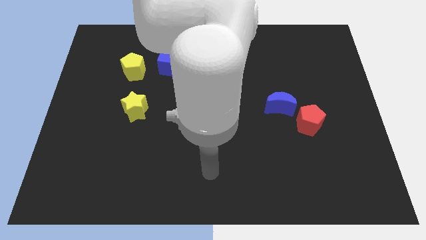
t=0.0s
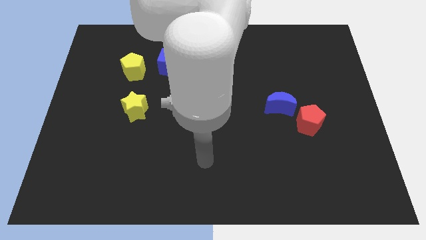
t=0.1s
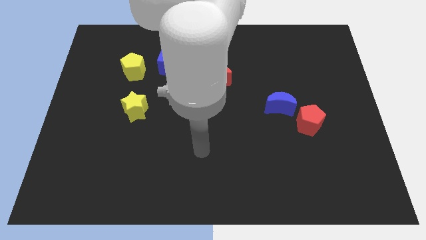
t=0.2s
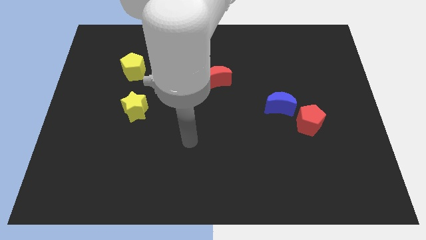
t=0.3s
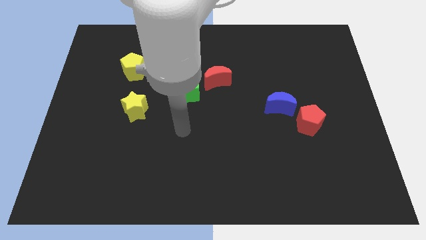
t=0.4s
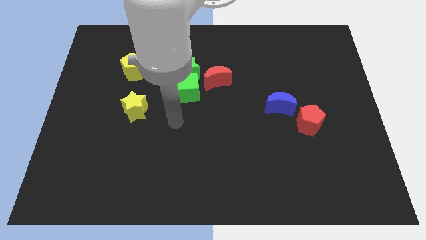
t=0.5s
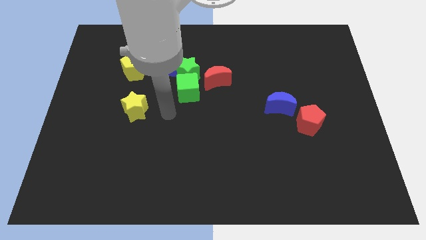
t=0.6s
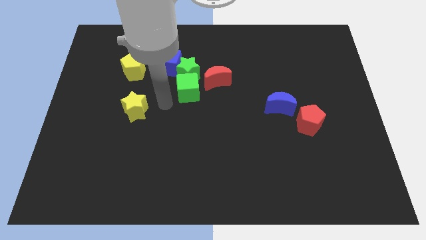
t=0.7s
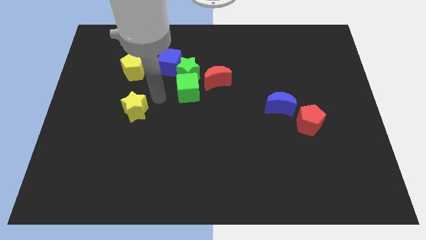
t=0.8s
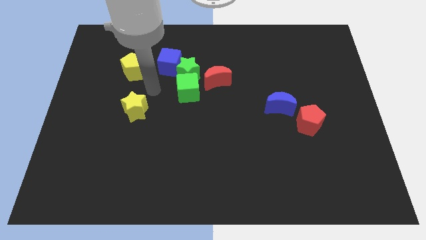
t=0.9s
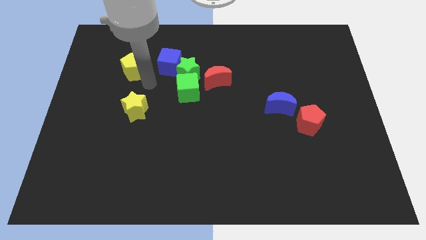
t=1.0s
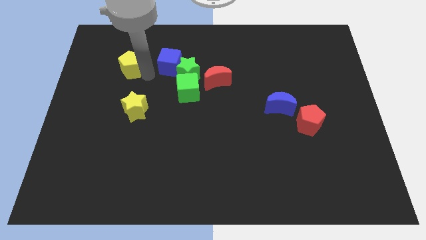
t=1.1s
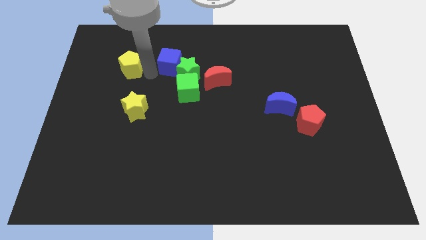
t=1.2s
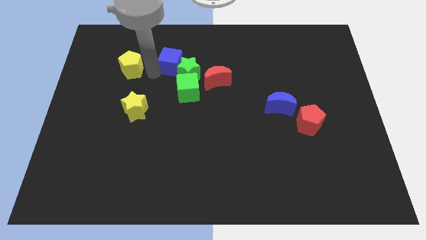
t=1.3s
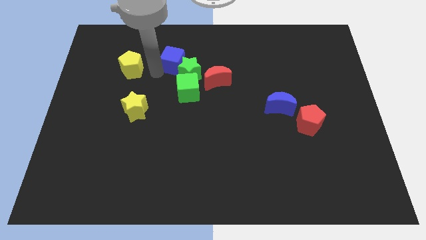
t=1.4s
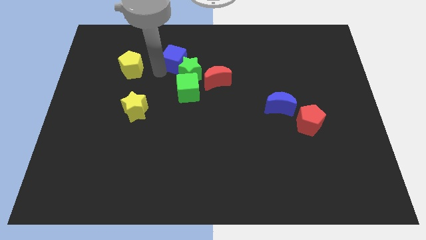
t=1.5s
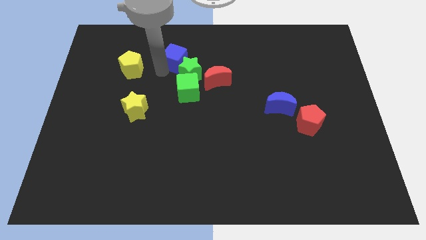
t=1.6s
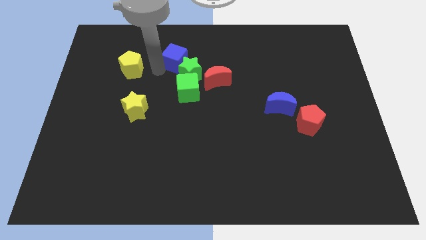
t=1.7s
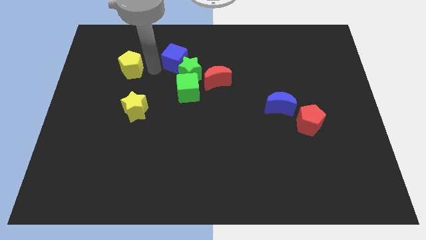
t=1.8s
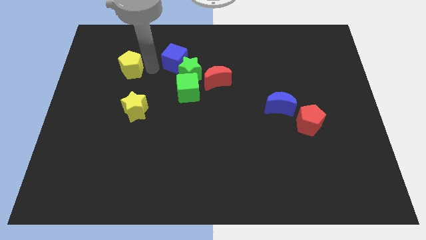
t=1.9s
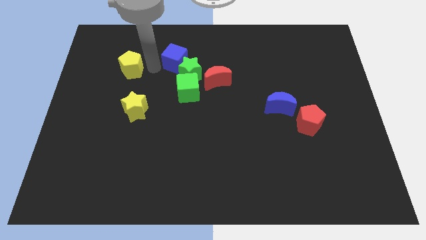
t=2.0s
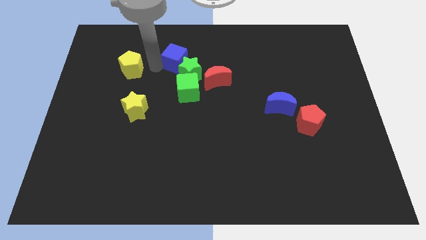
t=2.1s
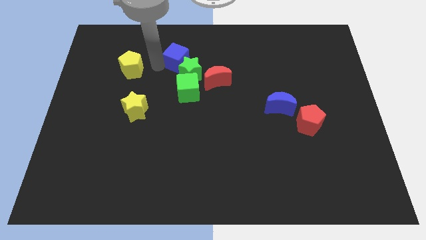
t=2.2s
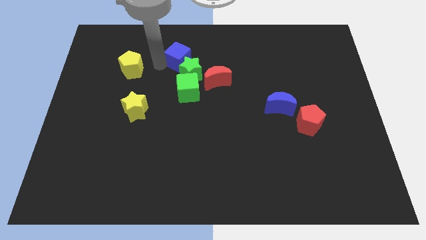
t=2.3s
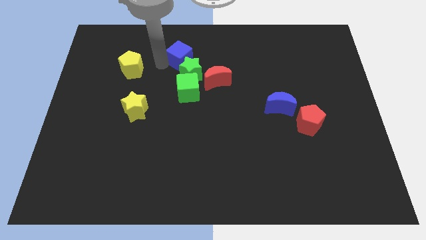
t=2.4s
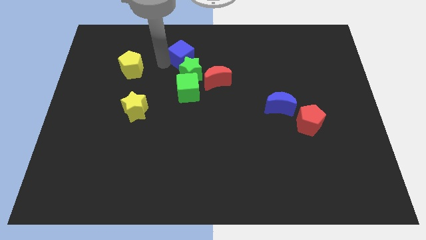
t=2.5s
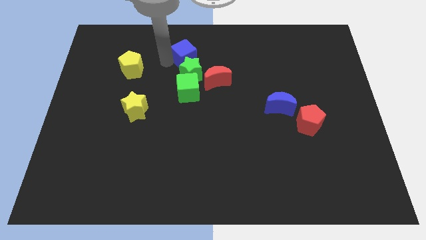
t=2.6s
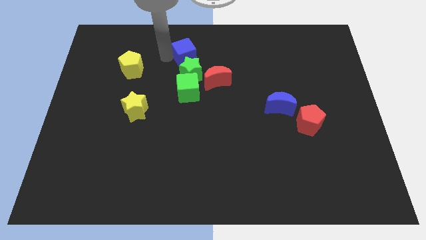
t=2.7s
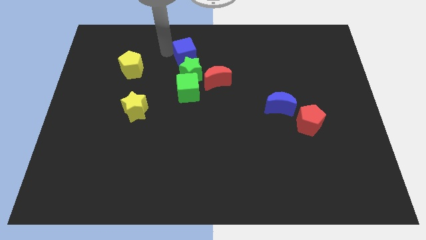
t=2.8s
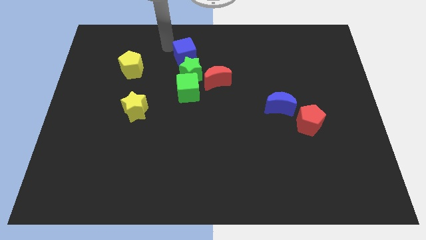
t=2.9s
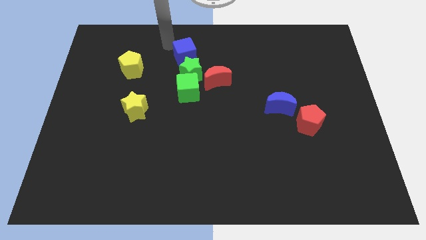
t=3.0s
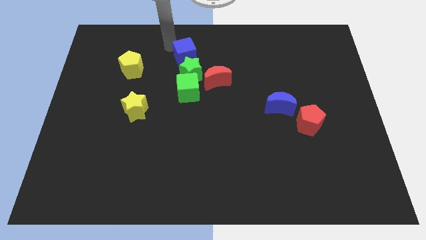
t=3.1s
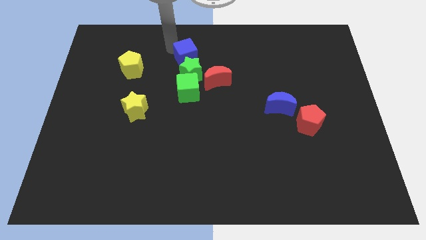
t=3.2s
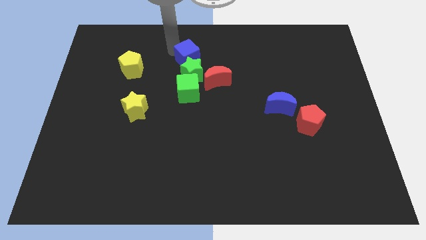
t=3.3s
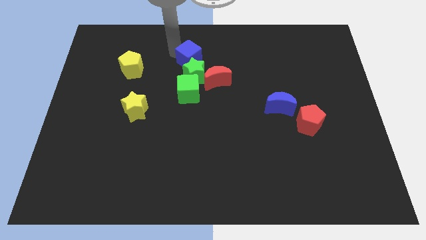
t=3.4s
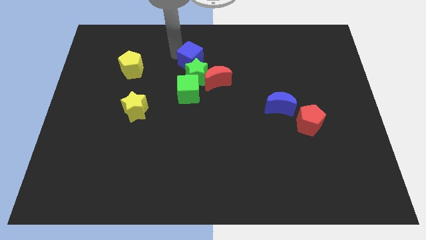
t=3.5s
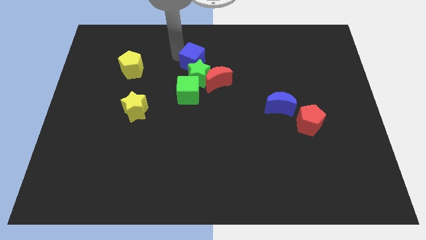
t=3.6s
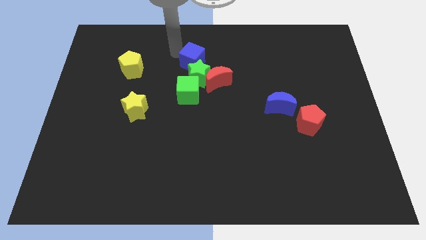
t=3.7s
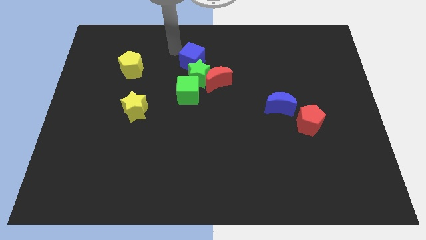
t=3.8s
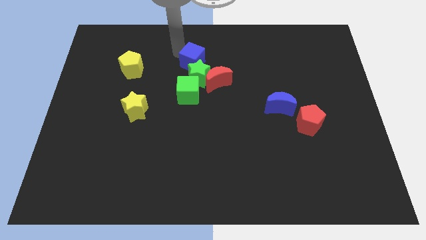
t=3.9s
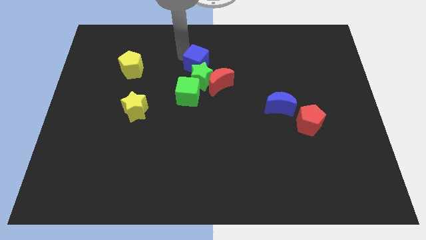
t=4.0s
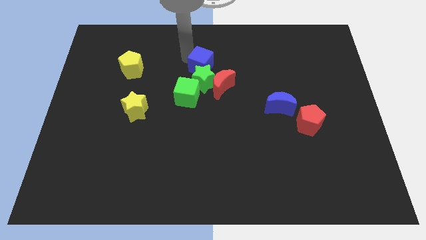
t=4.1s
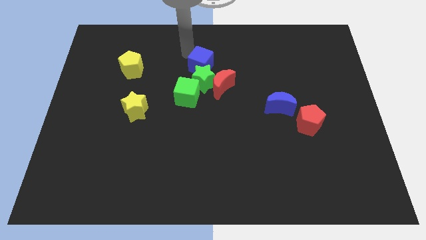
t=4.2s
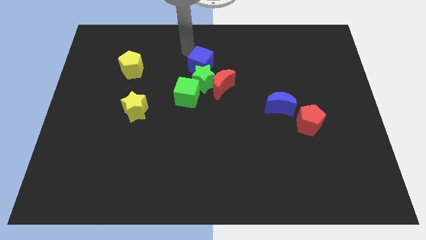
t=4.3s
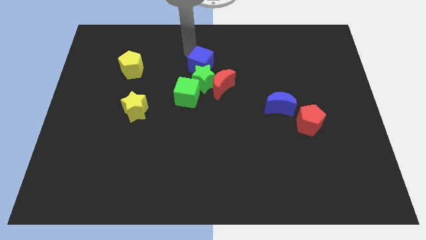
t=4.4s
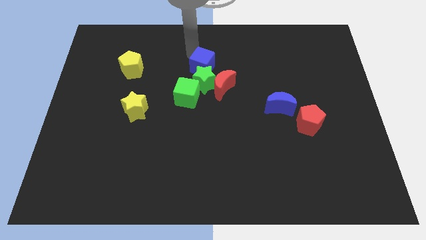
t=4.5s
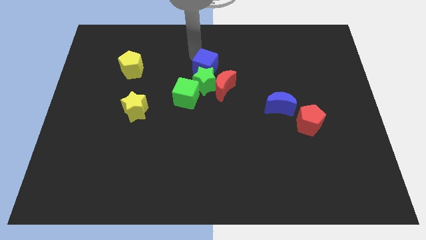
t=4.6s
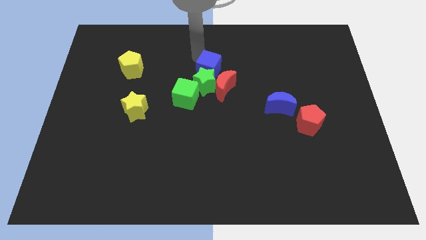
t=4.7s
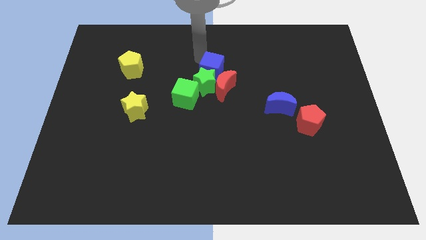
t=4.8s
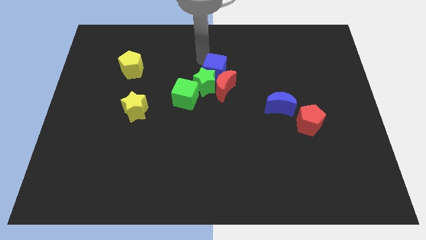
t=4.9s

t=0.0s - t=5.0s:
slide the blue cube towards the red moon

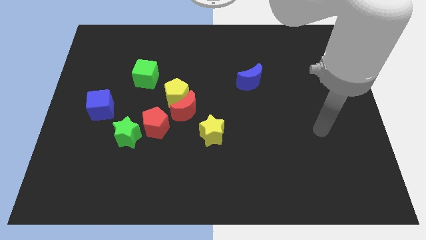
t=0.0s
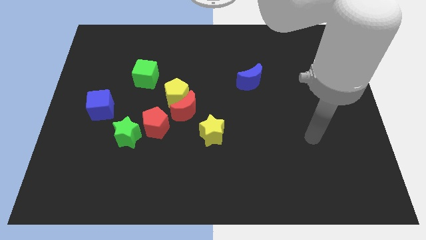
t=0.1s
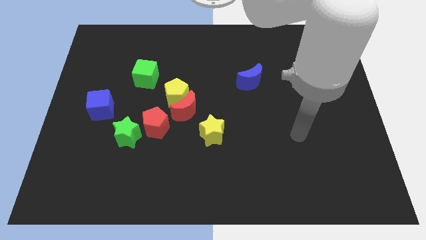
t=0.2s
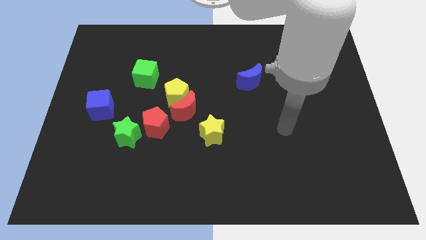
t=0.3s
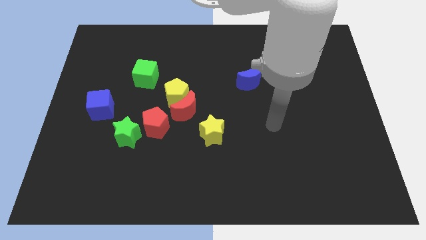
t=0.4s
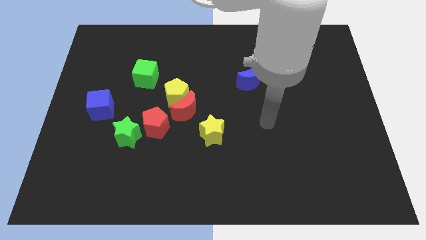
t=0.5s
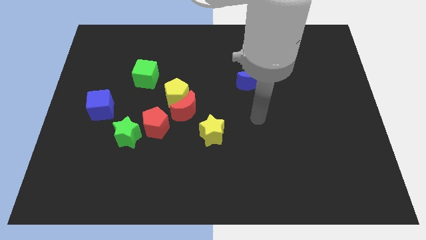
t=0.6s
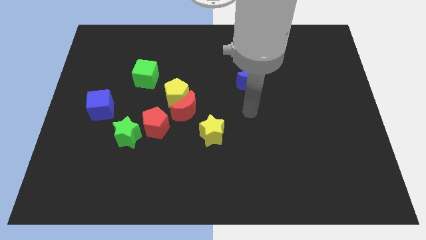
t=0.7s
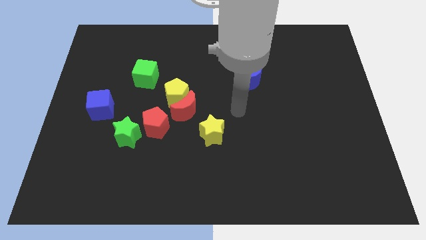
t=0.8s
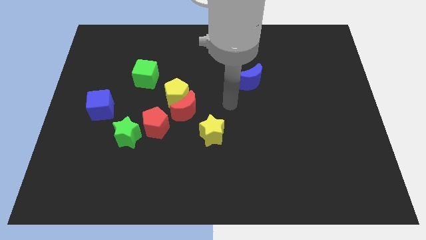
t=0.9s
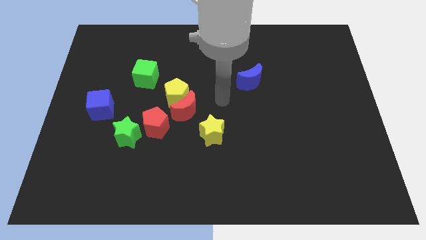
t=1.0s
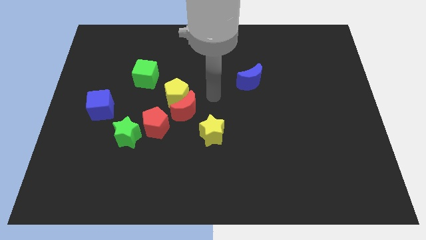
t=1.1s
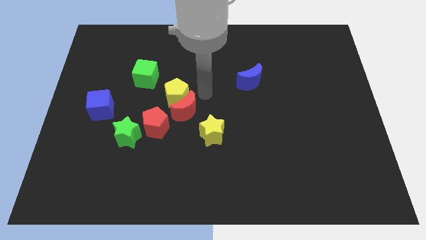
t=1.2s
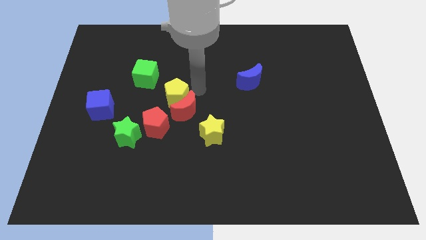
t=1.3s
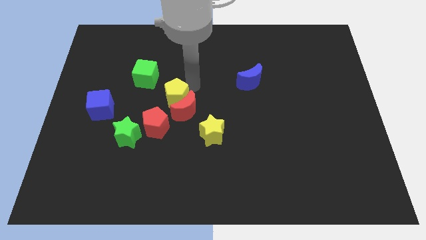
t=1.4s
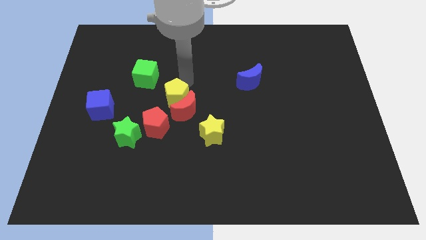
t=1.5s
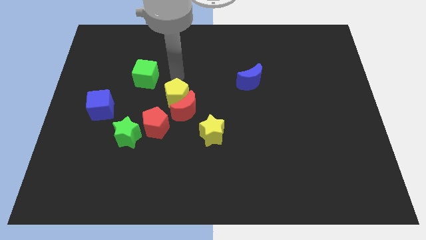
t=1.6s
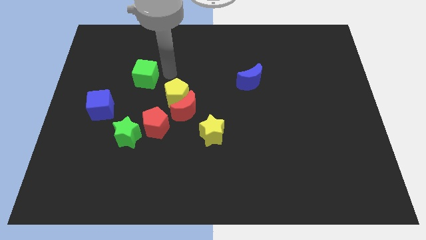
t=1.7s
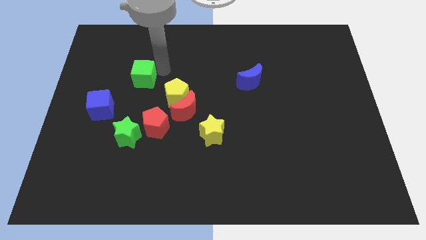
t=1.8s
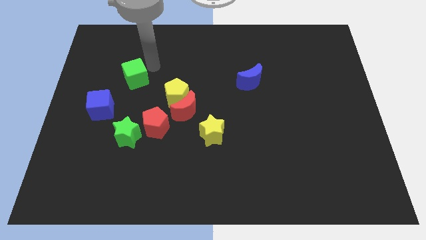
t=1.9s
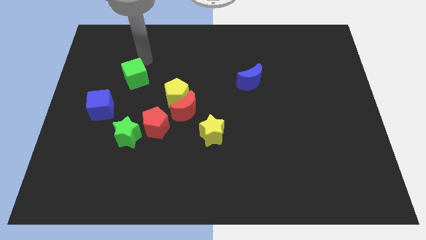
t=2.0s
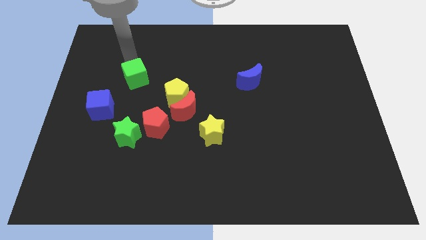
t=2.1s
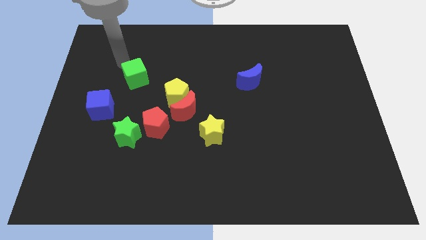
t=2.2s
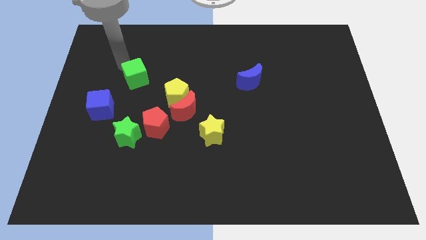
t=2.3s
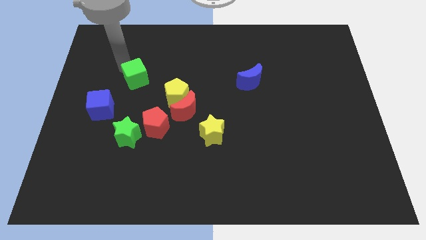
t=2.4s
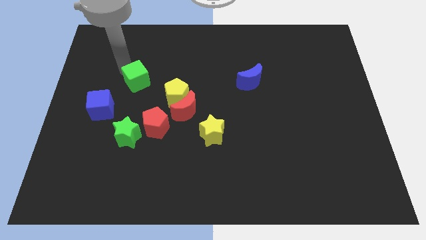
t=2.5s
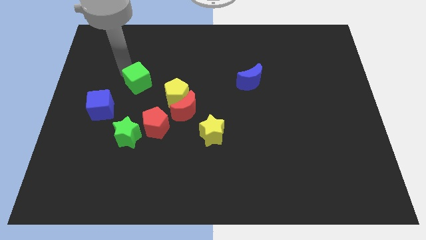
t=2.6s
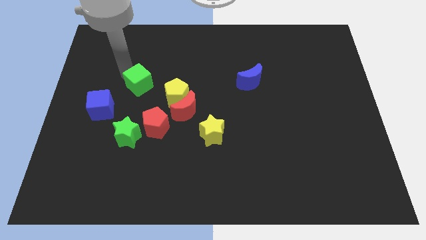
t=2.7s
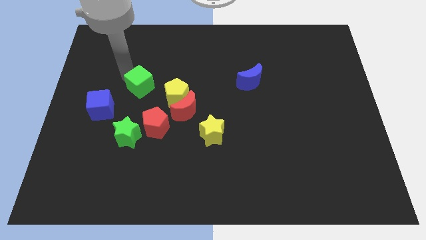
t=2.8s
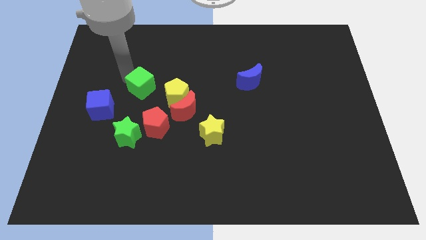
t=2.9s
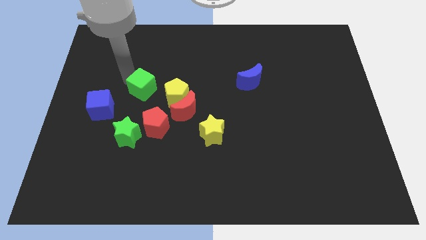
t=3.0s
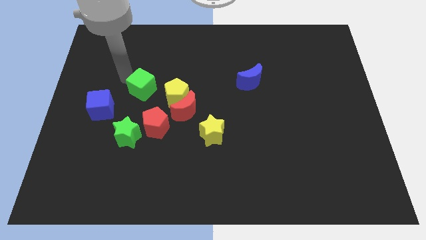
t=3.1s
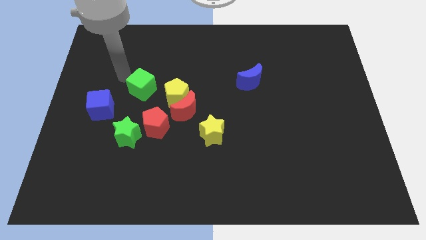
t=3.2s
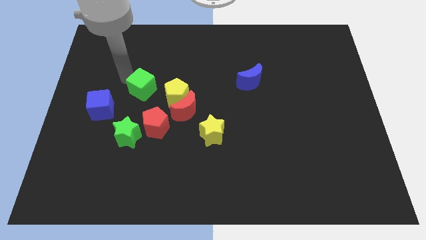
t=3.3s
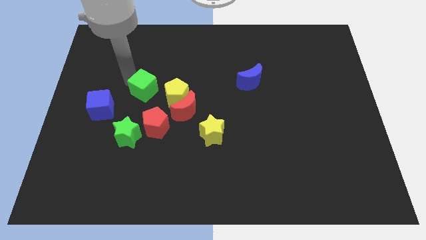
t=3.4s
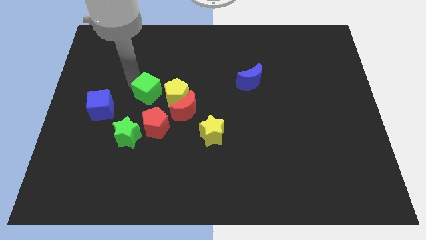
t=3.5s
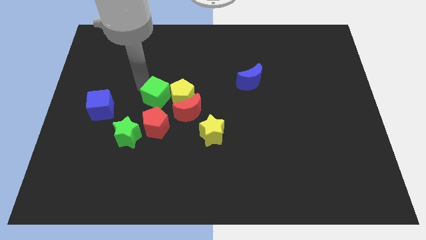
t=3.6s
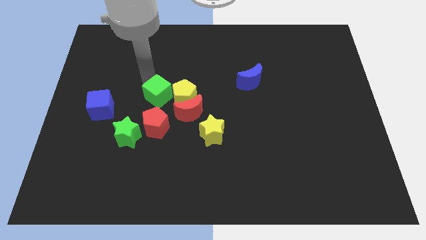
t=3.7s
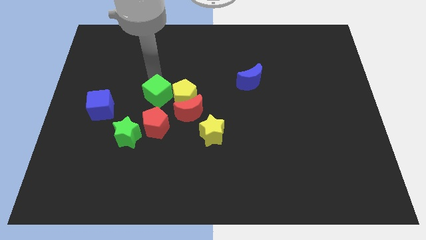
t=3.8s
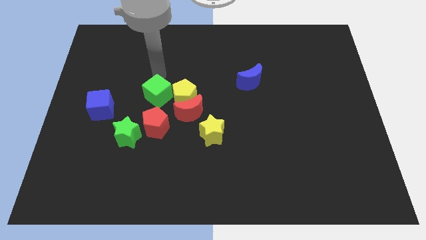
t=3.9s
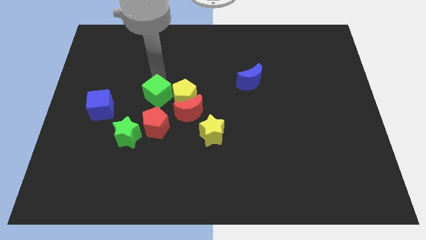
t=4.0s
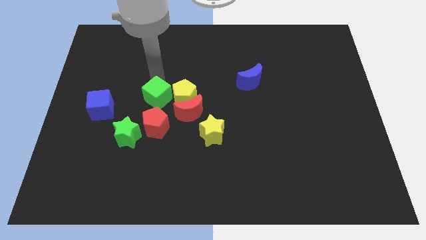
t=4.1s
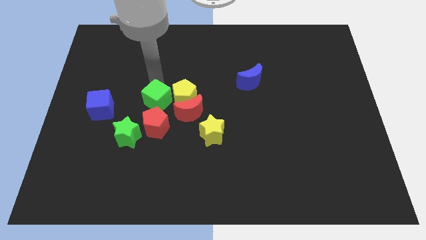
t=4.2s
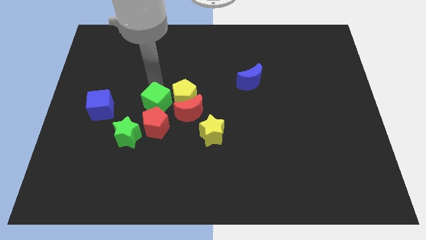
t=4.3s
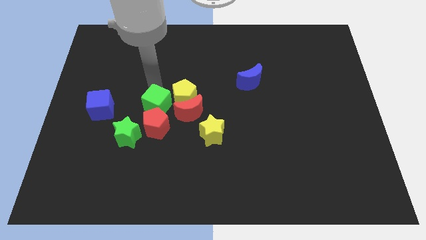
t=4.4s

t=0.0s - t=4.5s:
slide the green cube close to the red pentagon
